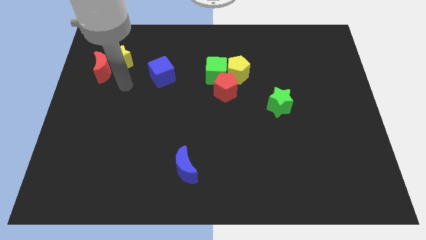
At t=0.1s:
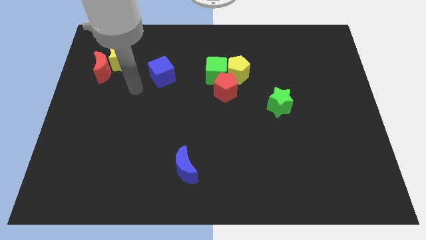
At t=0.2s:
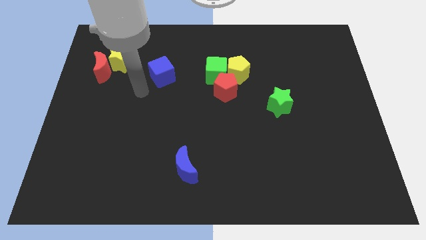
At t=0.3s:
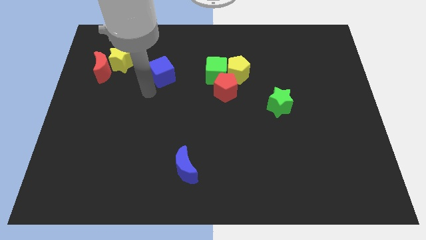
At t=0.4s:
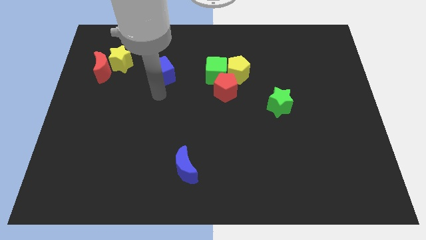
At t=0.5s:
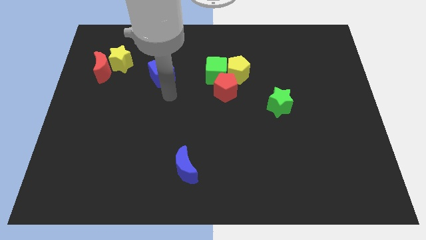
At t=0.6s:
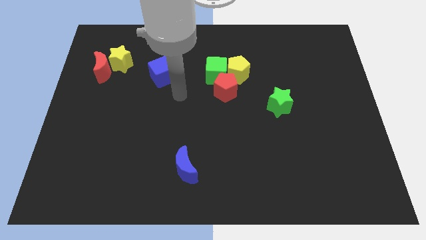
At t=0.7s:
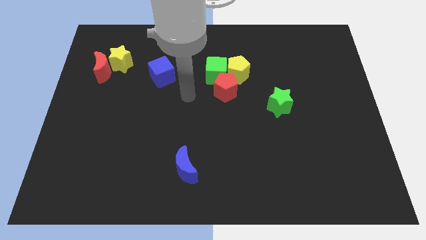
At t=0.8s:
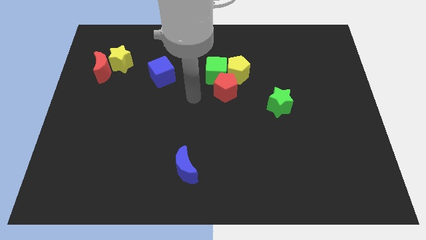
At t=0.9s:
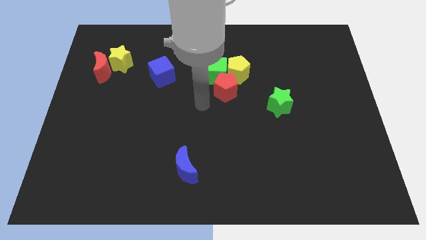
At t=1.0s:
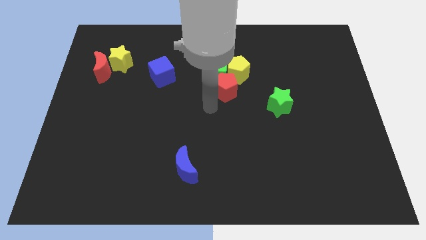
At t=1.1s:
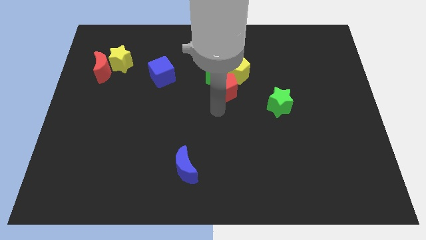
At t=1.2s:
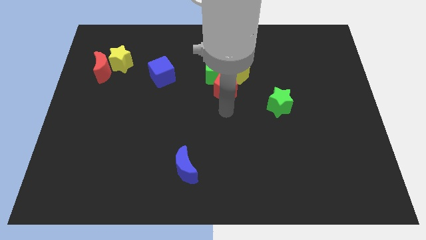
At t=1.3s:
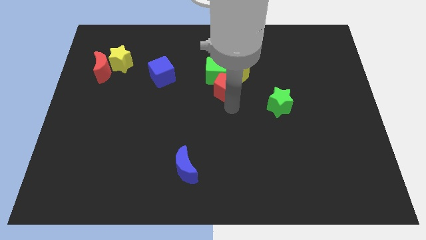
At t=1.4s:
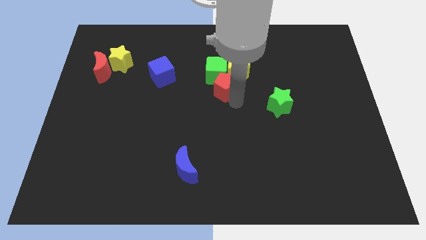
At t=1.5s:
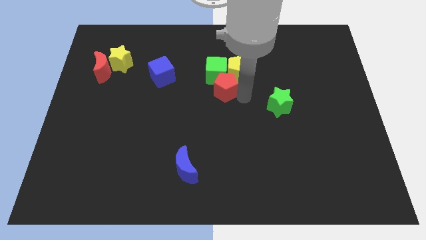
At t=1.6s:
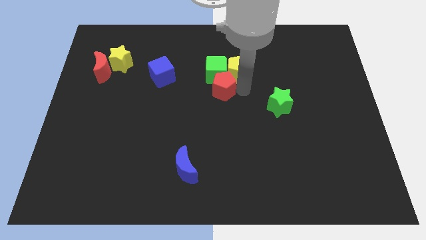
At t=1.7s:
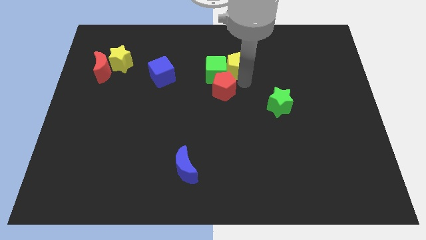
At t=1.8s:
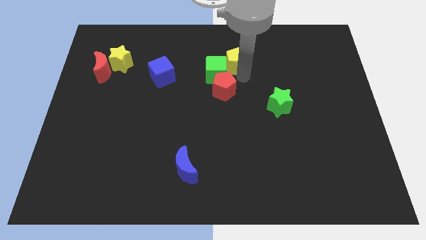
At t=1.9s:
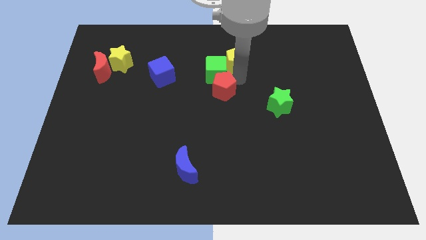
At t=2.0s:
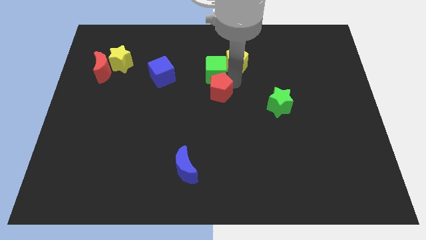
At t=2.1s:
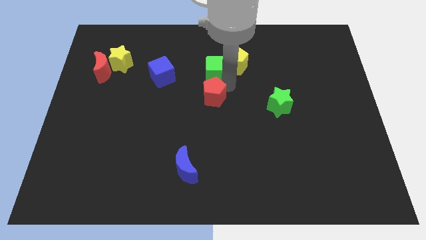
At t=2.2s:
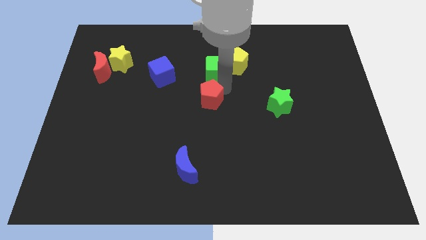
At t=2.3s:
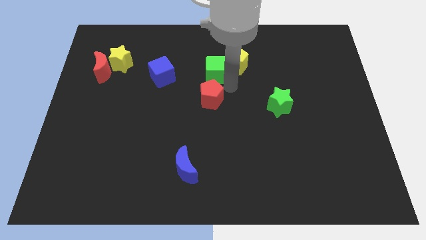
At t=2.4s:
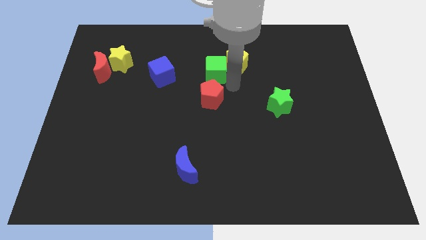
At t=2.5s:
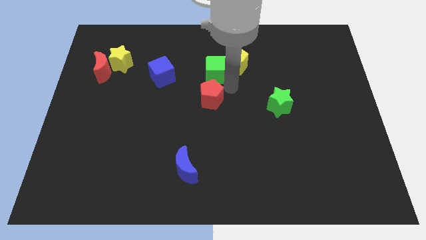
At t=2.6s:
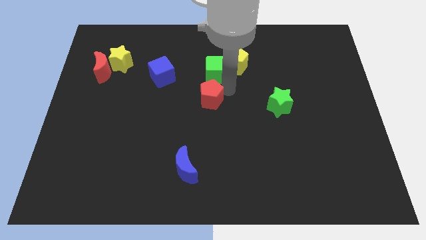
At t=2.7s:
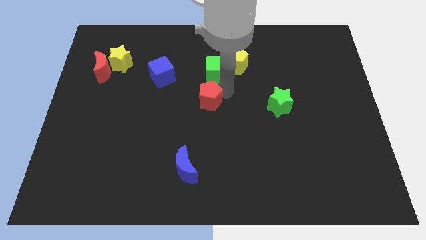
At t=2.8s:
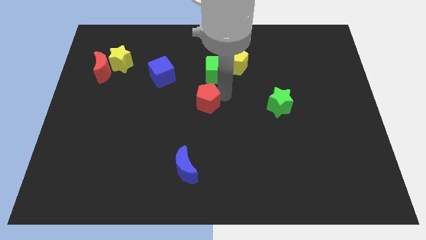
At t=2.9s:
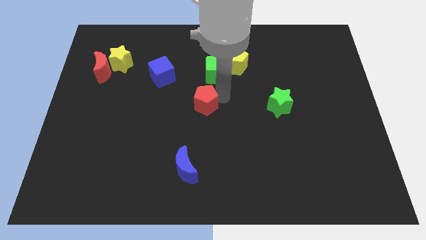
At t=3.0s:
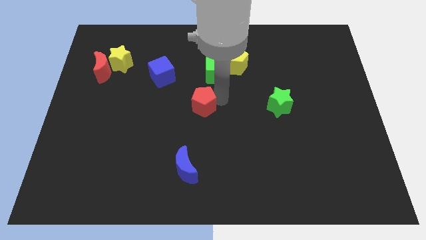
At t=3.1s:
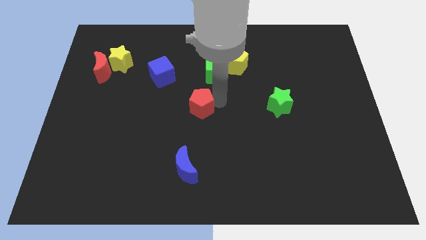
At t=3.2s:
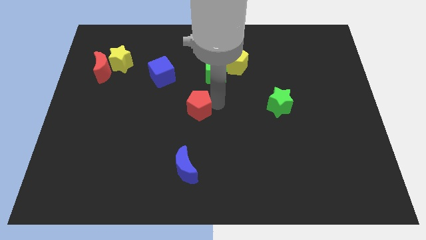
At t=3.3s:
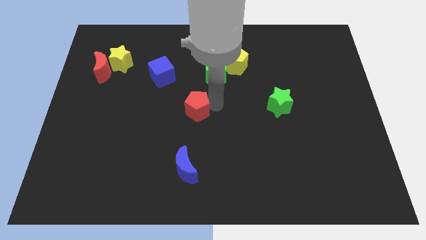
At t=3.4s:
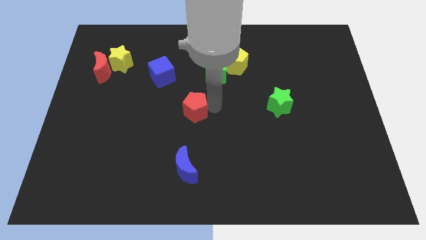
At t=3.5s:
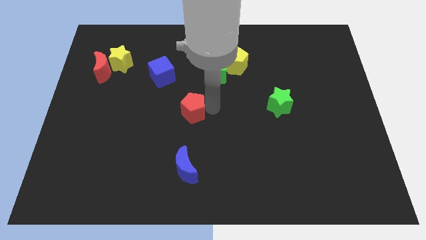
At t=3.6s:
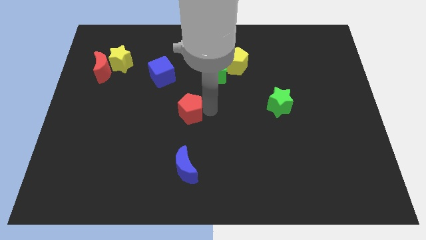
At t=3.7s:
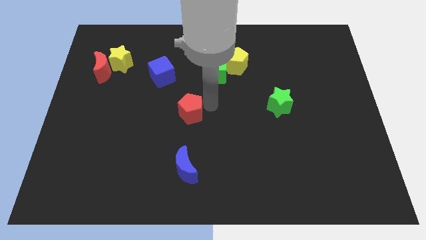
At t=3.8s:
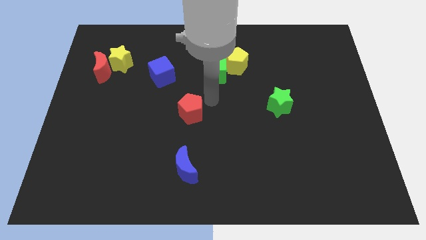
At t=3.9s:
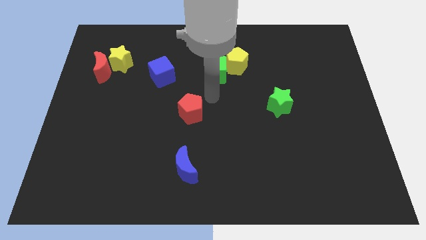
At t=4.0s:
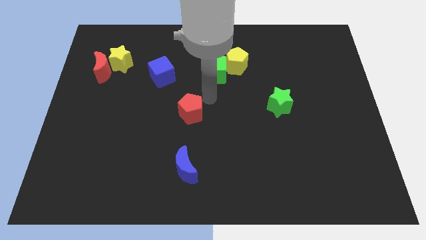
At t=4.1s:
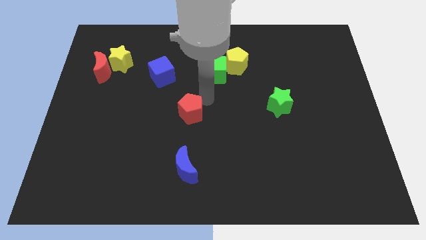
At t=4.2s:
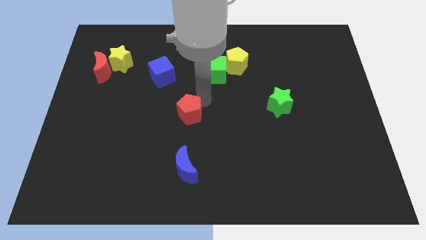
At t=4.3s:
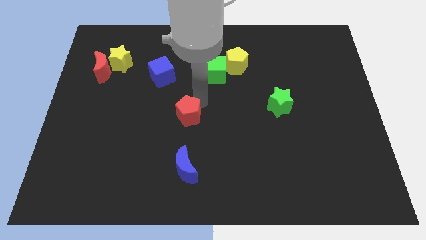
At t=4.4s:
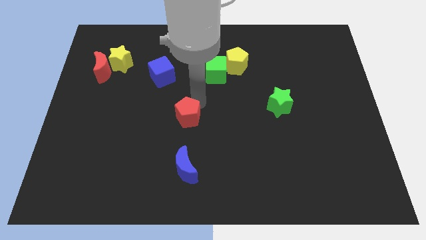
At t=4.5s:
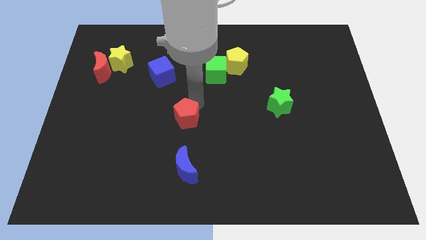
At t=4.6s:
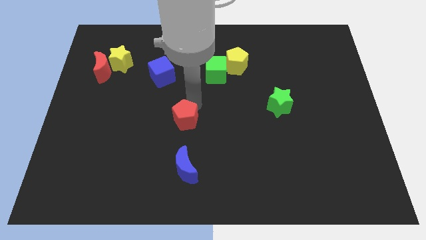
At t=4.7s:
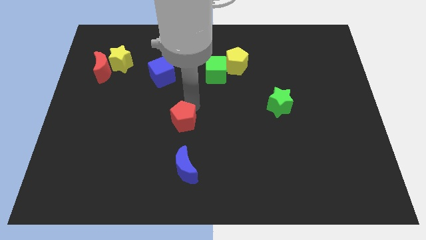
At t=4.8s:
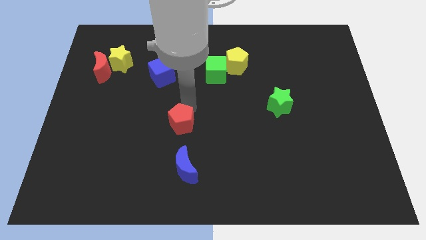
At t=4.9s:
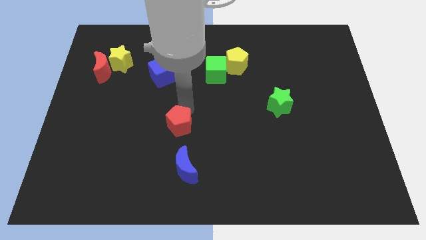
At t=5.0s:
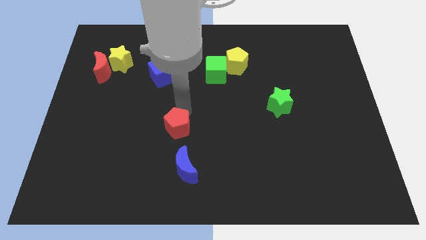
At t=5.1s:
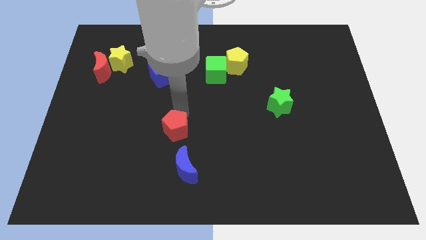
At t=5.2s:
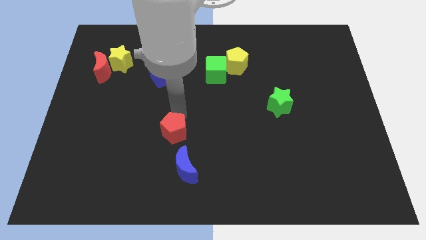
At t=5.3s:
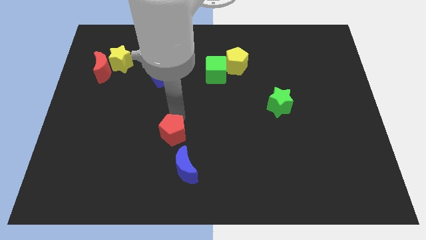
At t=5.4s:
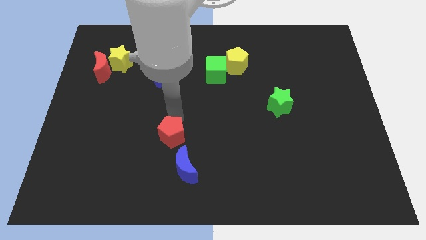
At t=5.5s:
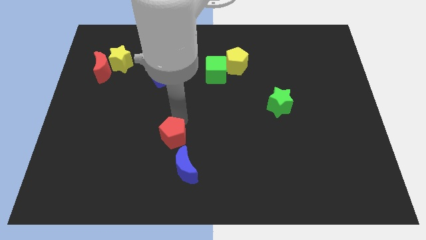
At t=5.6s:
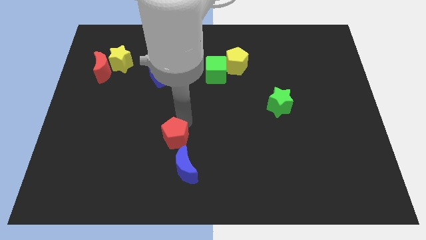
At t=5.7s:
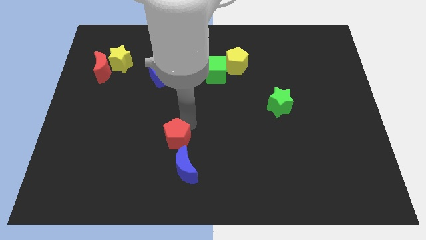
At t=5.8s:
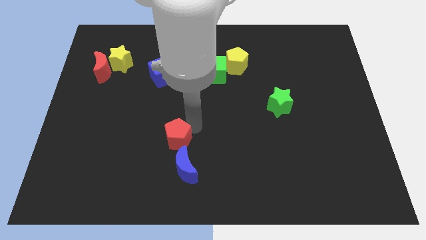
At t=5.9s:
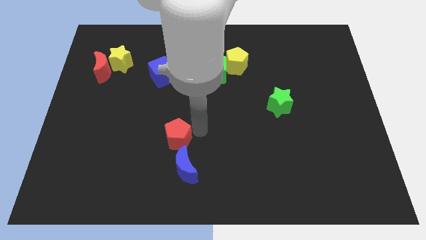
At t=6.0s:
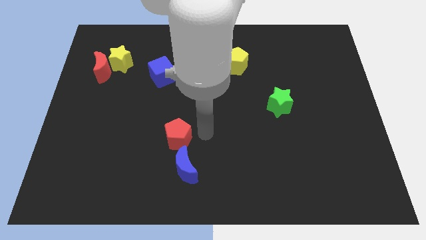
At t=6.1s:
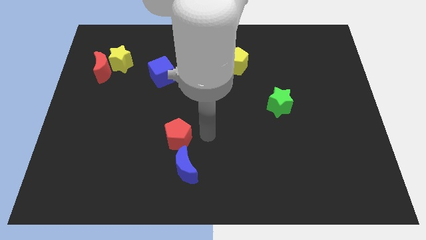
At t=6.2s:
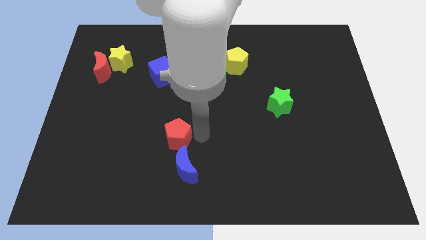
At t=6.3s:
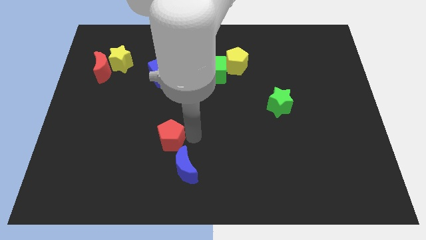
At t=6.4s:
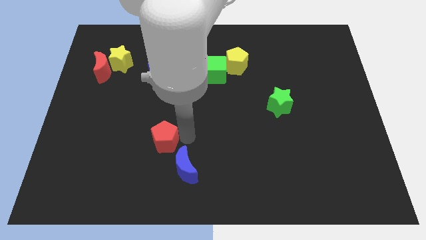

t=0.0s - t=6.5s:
slide the red pentagon down and then left

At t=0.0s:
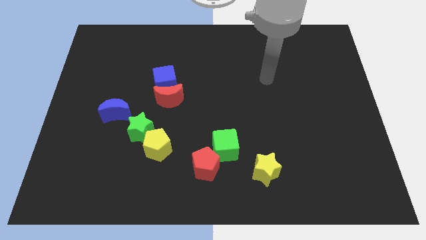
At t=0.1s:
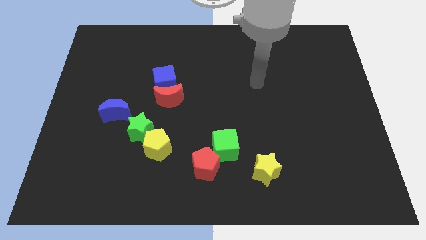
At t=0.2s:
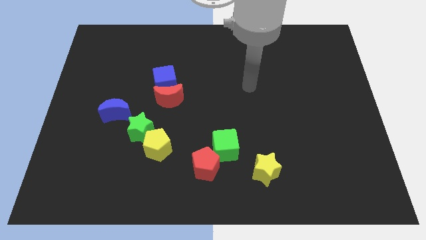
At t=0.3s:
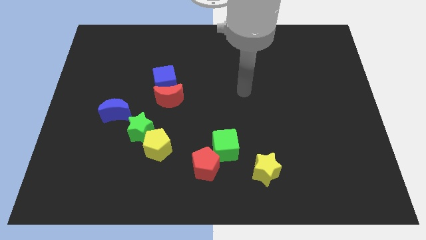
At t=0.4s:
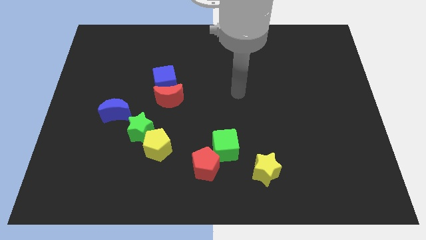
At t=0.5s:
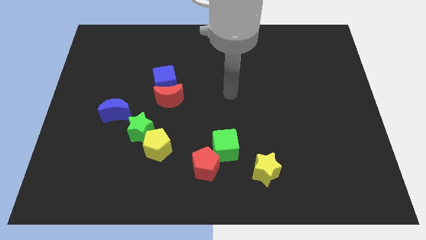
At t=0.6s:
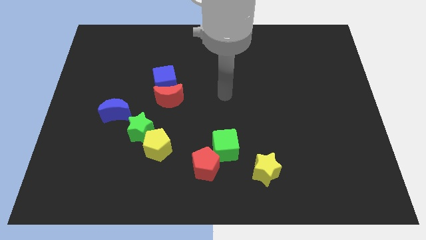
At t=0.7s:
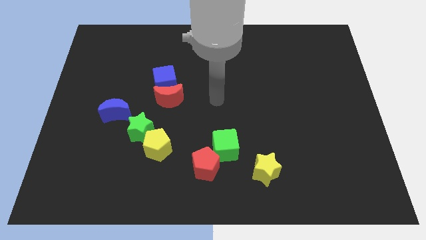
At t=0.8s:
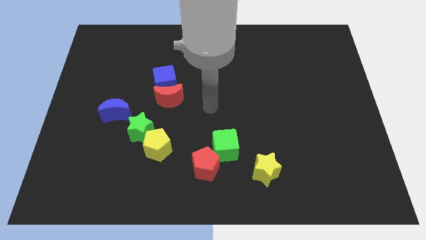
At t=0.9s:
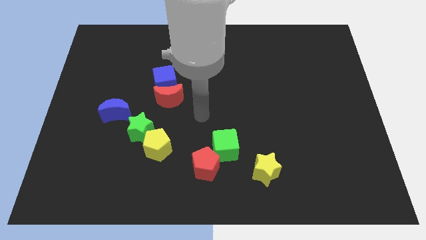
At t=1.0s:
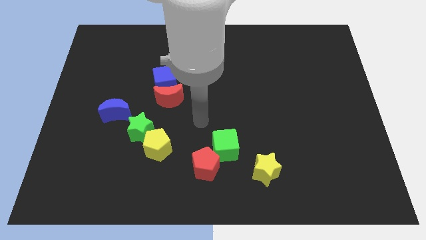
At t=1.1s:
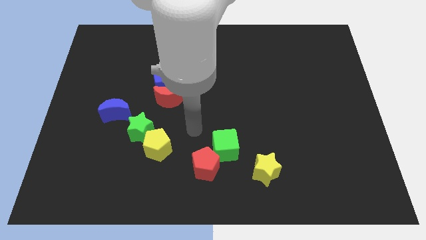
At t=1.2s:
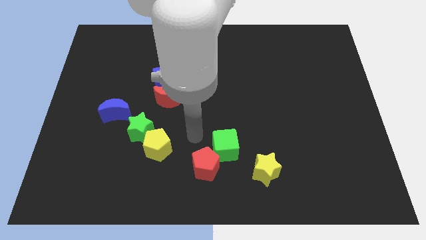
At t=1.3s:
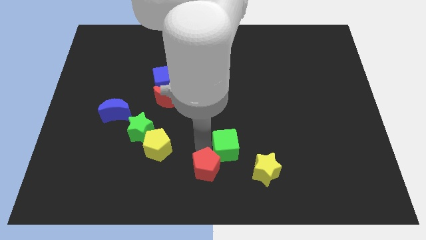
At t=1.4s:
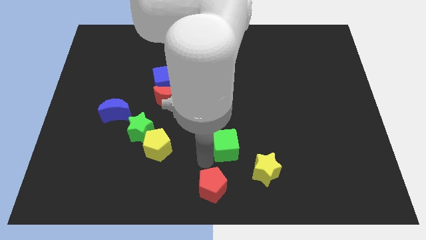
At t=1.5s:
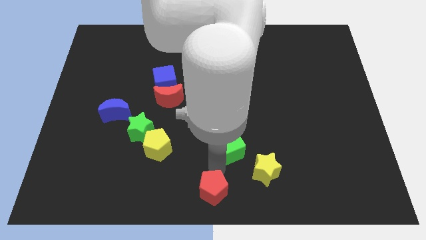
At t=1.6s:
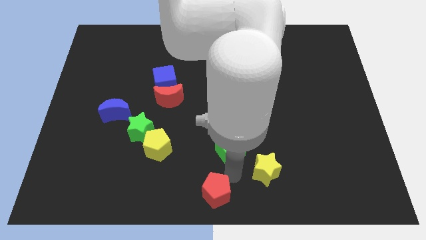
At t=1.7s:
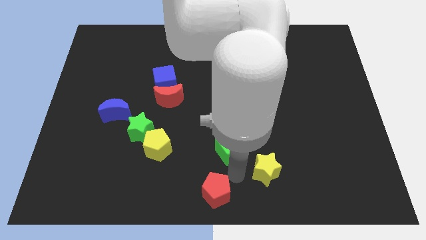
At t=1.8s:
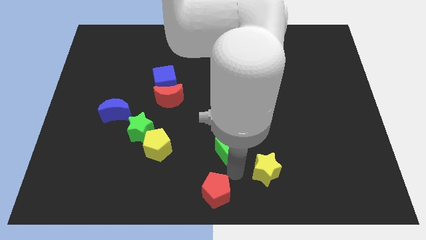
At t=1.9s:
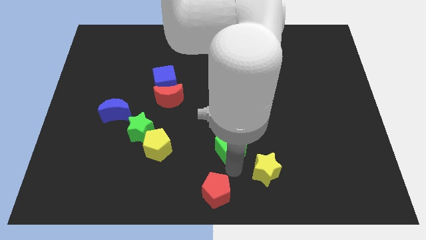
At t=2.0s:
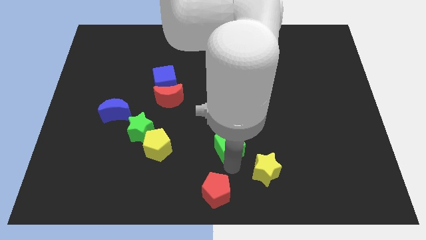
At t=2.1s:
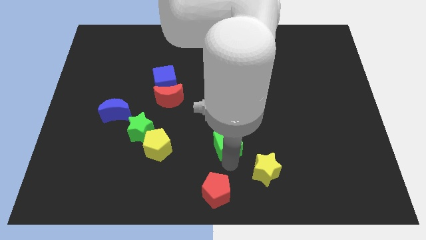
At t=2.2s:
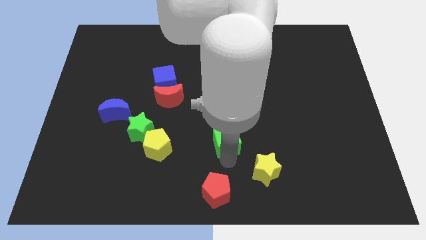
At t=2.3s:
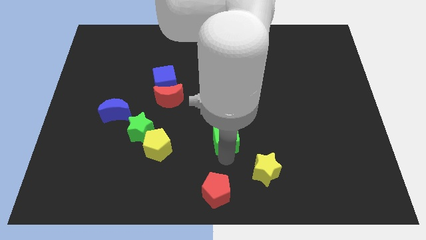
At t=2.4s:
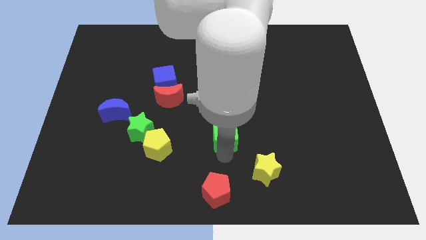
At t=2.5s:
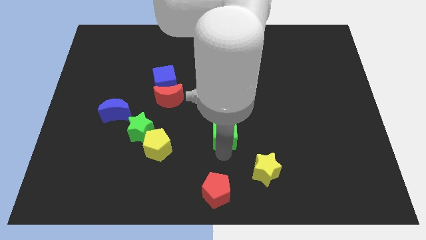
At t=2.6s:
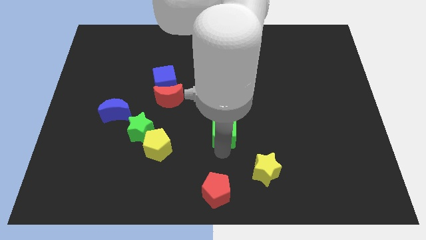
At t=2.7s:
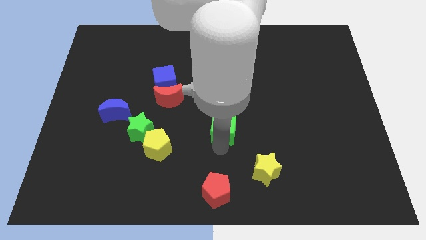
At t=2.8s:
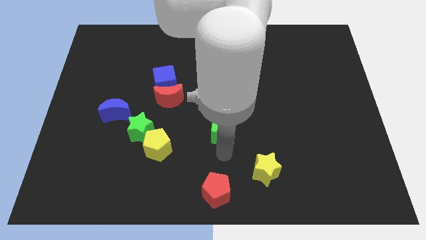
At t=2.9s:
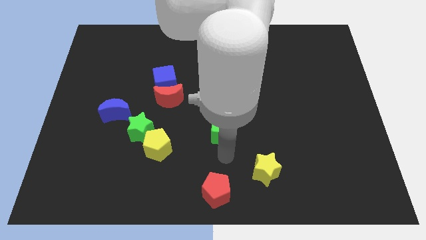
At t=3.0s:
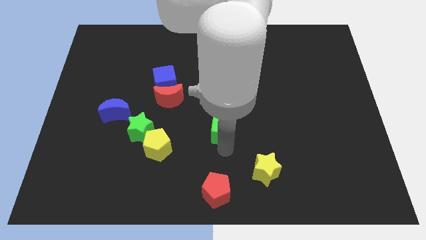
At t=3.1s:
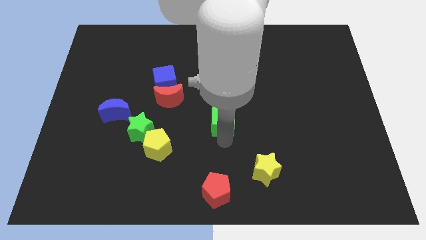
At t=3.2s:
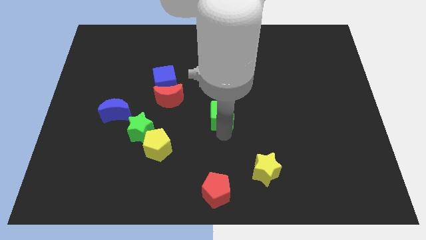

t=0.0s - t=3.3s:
slide the green cube somewhat up
